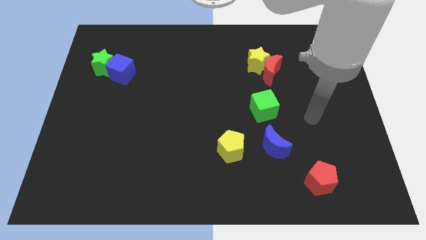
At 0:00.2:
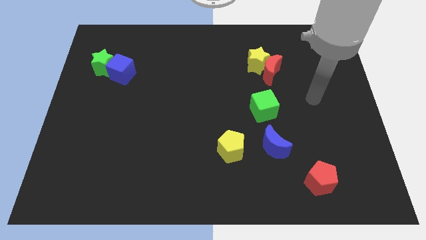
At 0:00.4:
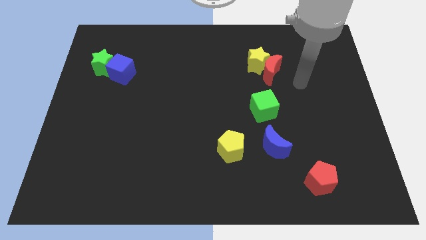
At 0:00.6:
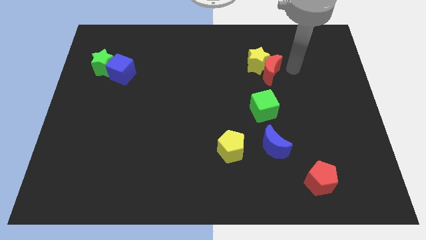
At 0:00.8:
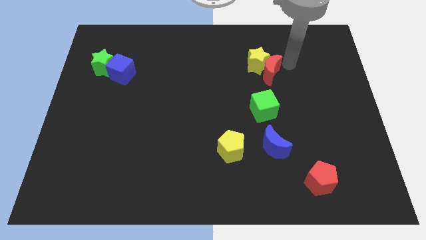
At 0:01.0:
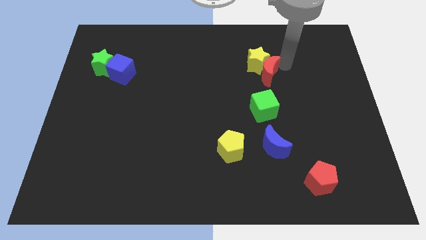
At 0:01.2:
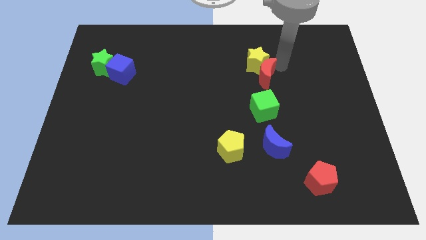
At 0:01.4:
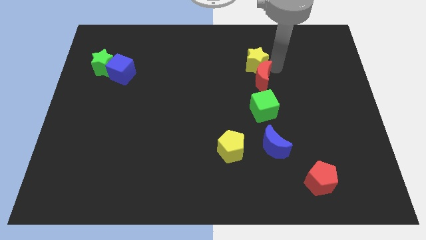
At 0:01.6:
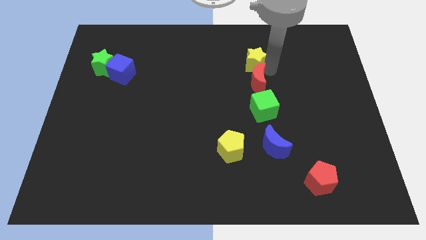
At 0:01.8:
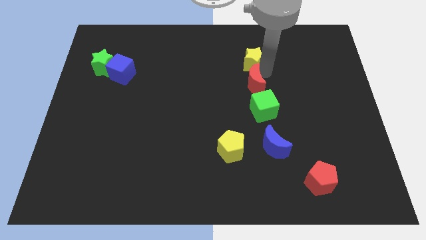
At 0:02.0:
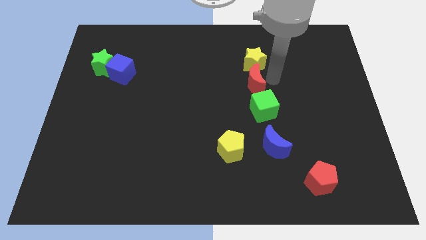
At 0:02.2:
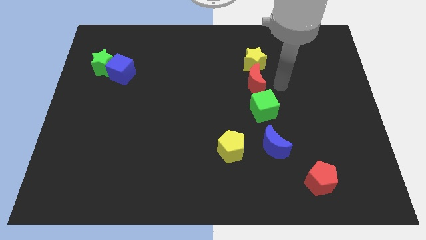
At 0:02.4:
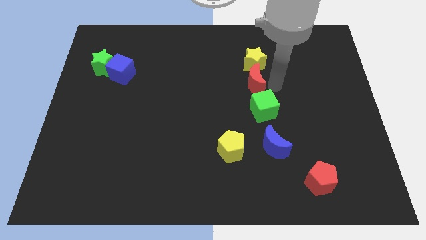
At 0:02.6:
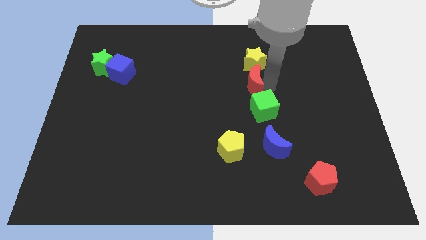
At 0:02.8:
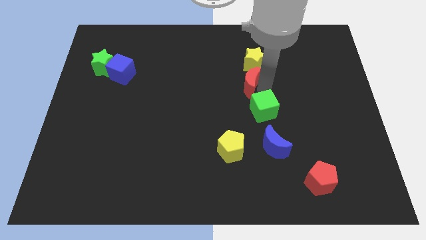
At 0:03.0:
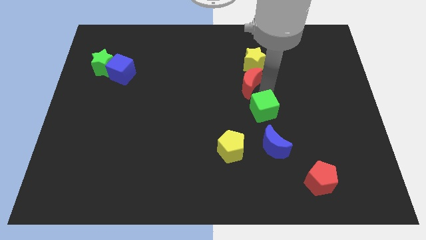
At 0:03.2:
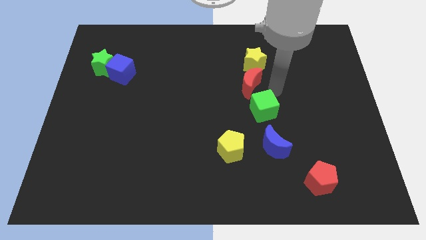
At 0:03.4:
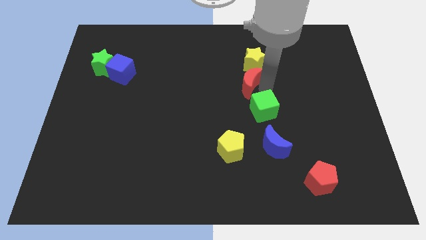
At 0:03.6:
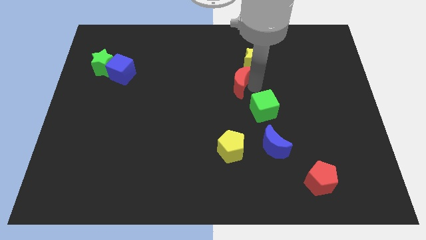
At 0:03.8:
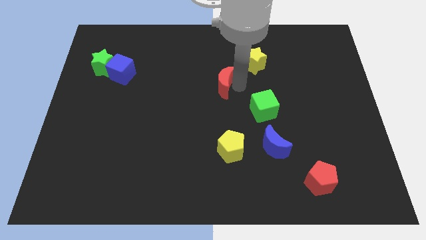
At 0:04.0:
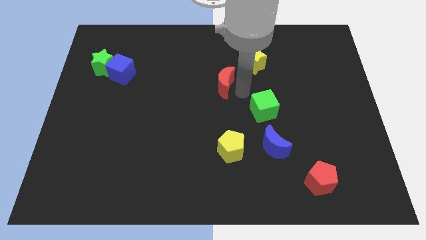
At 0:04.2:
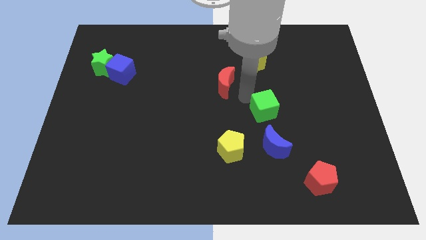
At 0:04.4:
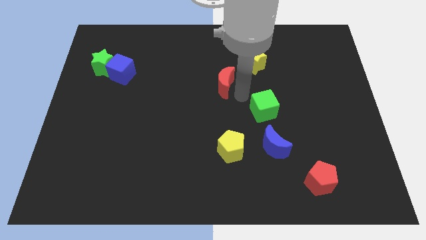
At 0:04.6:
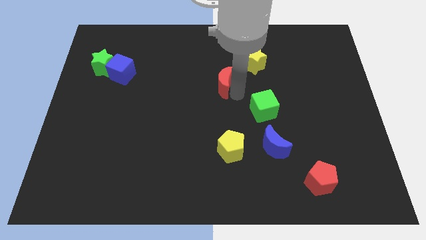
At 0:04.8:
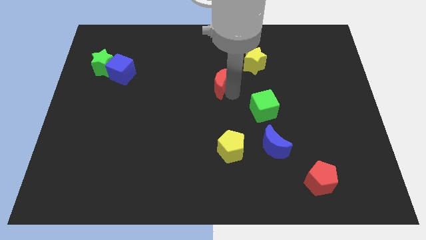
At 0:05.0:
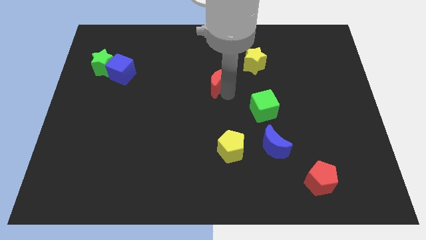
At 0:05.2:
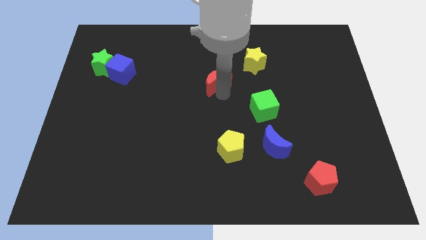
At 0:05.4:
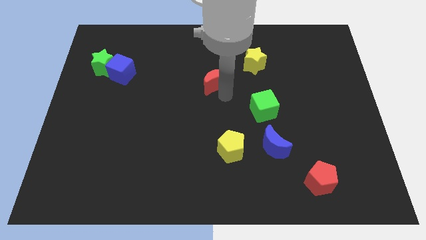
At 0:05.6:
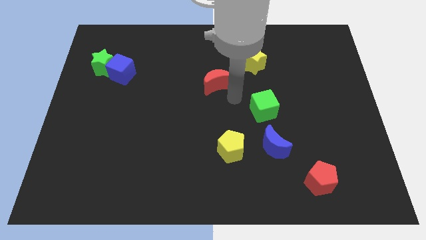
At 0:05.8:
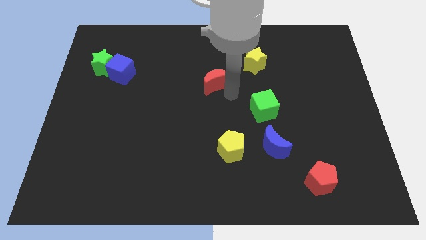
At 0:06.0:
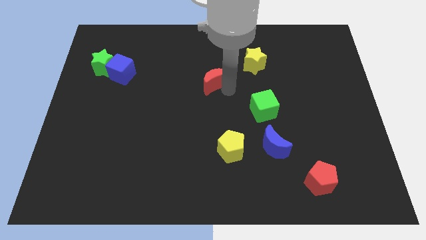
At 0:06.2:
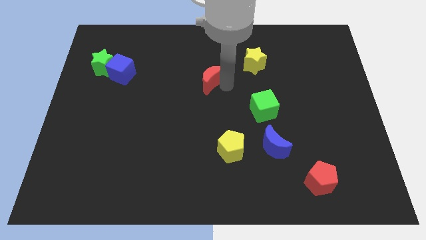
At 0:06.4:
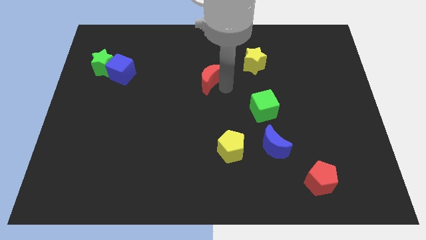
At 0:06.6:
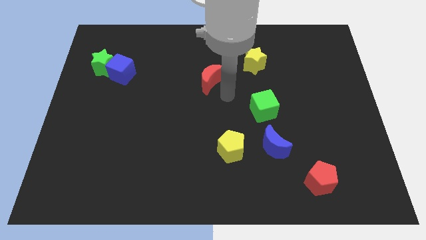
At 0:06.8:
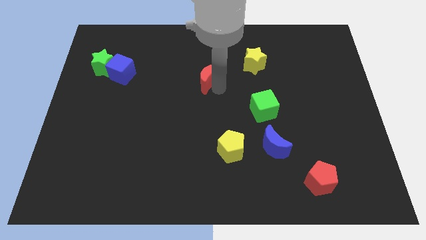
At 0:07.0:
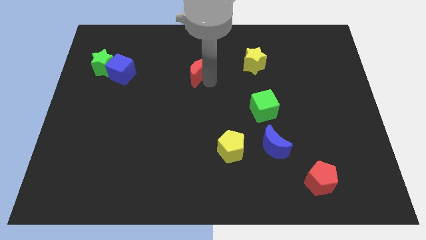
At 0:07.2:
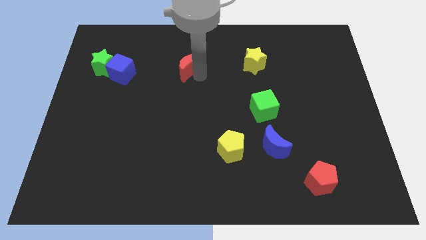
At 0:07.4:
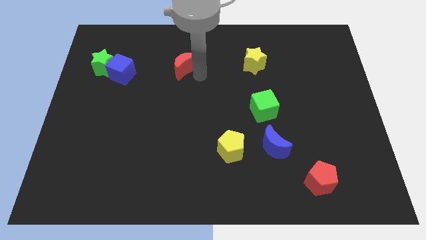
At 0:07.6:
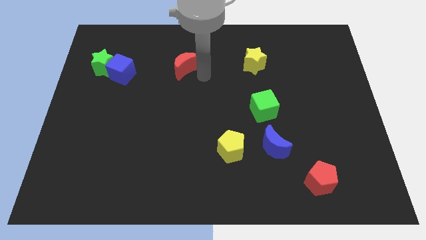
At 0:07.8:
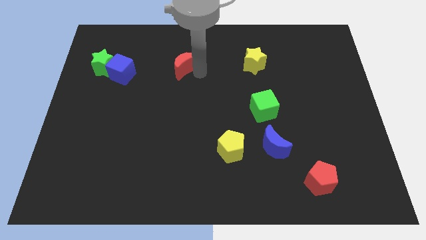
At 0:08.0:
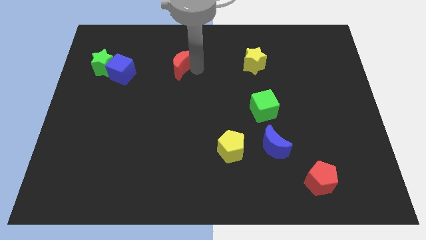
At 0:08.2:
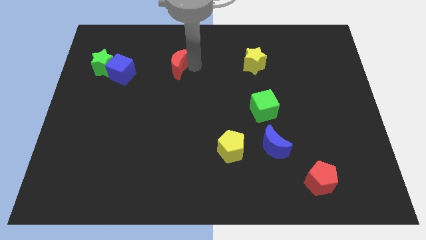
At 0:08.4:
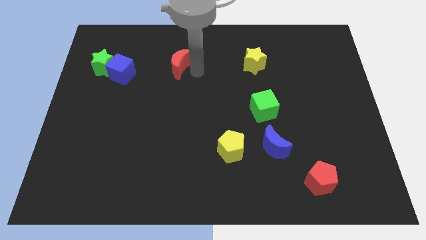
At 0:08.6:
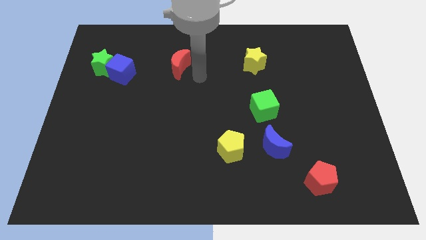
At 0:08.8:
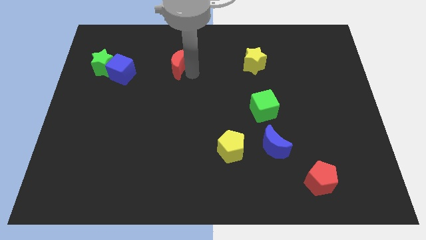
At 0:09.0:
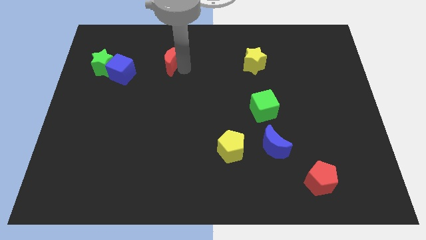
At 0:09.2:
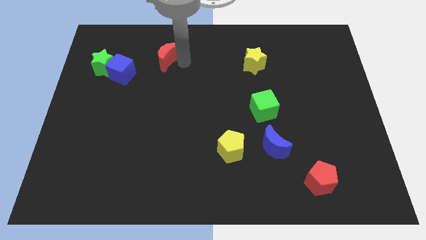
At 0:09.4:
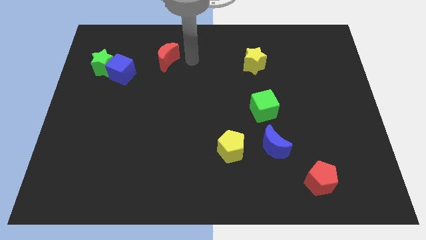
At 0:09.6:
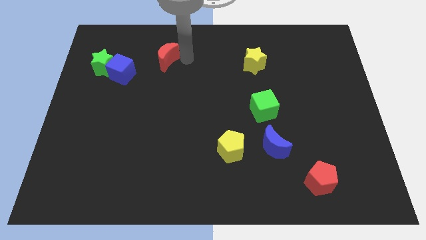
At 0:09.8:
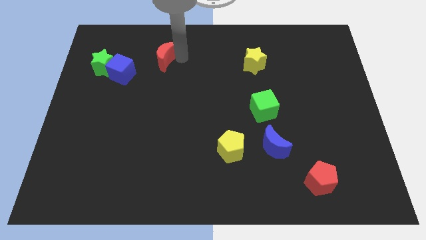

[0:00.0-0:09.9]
push the red moon diagonally up and to the right of the blue cube

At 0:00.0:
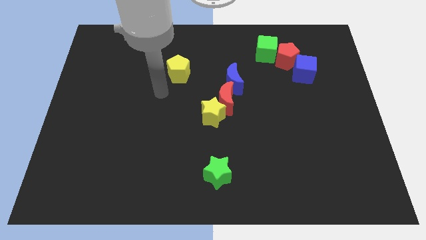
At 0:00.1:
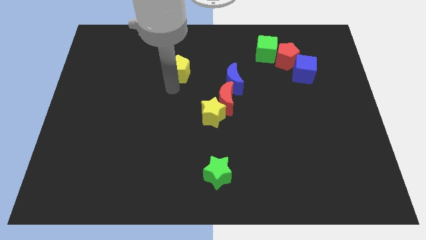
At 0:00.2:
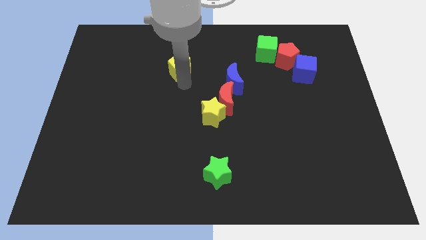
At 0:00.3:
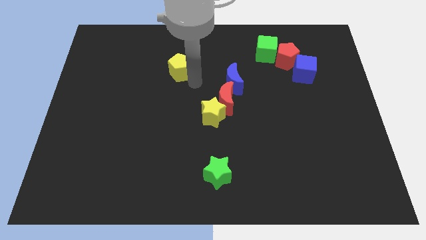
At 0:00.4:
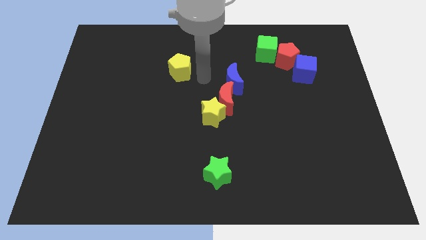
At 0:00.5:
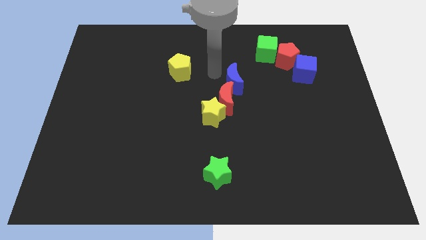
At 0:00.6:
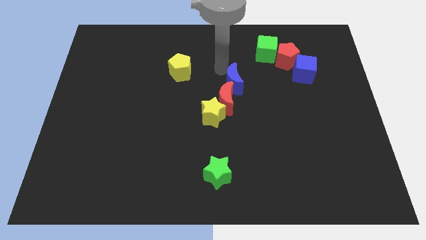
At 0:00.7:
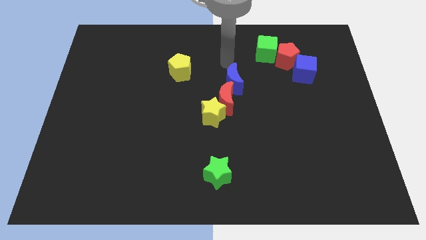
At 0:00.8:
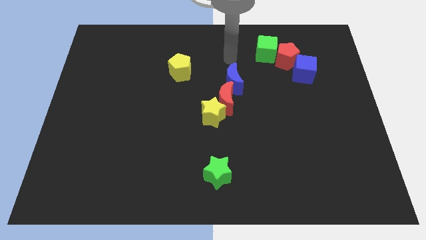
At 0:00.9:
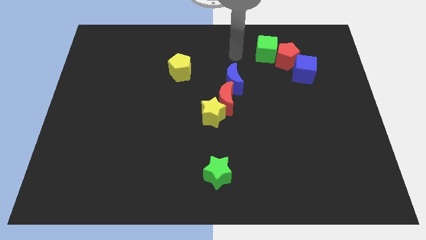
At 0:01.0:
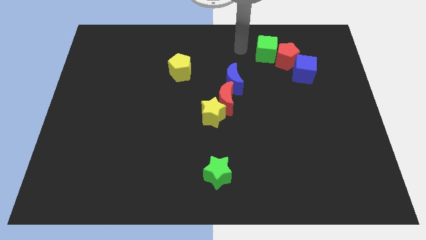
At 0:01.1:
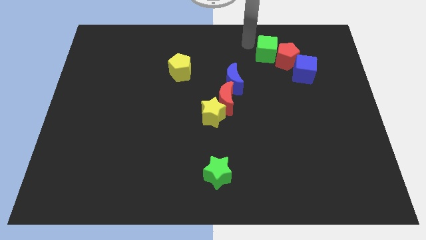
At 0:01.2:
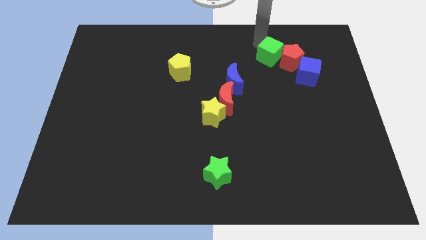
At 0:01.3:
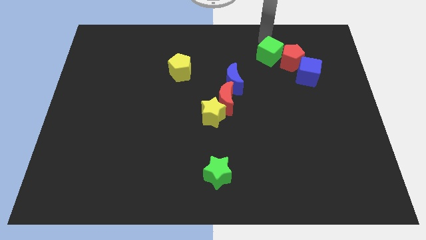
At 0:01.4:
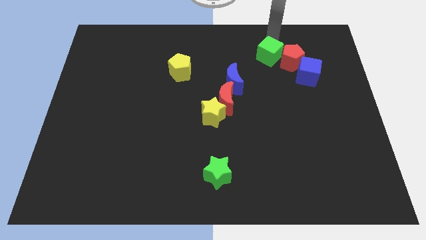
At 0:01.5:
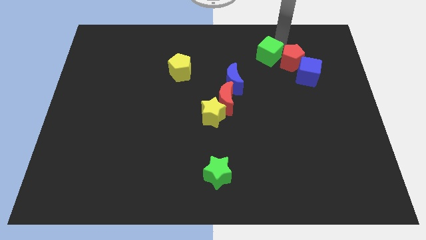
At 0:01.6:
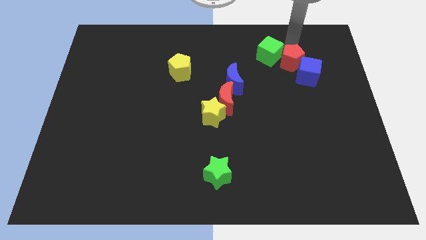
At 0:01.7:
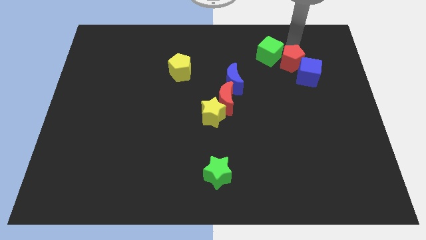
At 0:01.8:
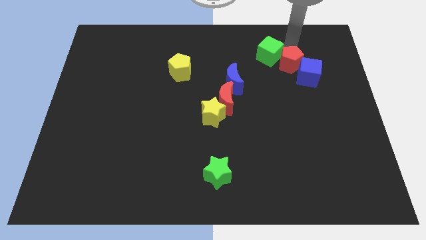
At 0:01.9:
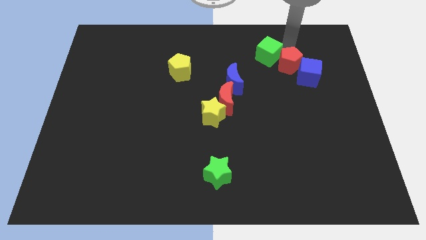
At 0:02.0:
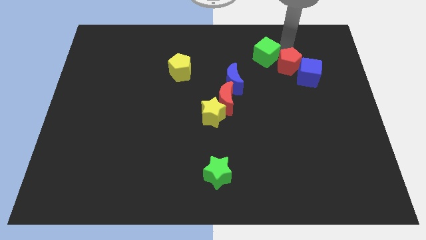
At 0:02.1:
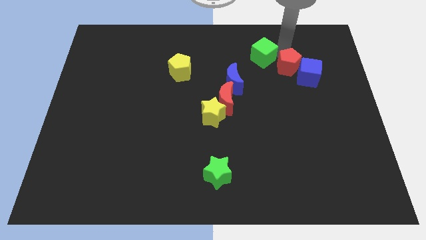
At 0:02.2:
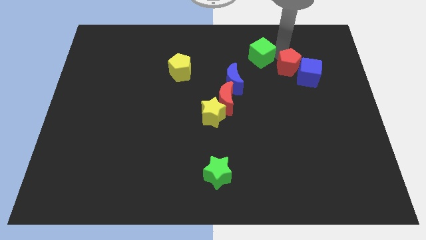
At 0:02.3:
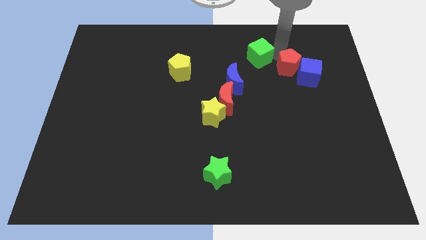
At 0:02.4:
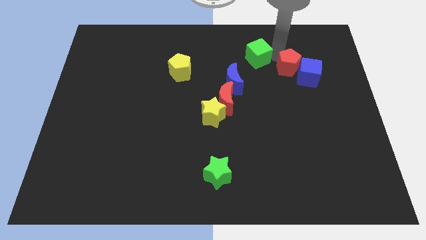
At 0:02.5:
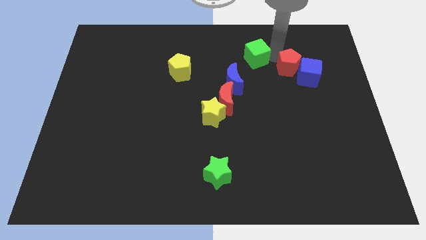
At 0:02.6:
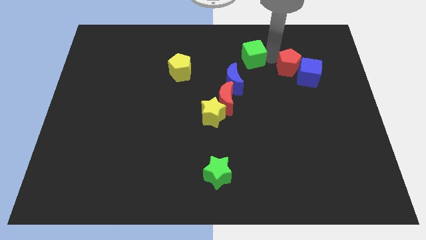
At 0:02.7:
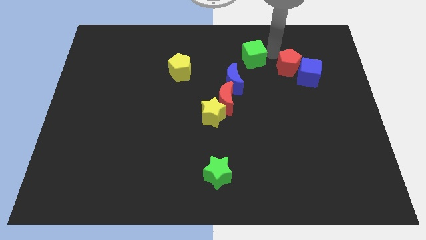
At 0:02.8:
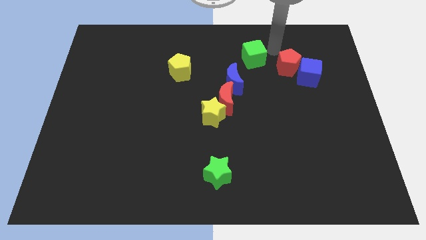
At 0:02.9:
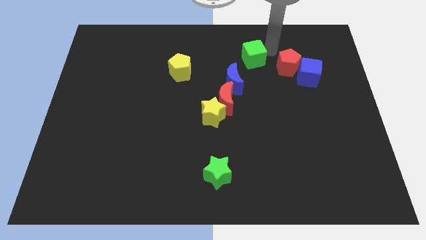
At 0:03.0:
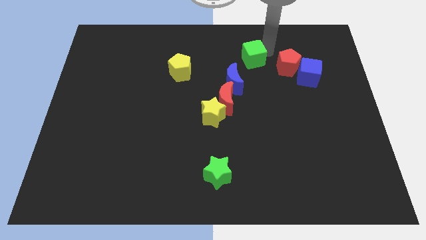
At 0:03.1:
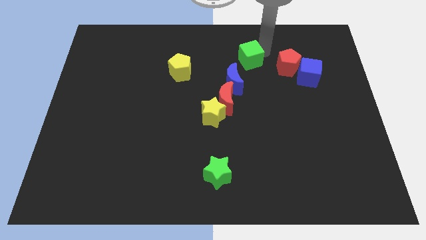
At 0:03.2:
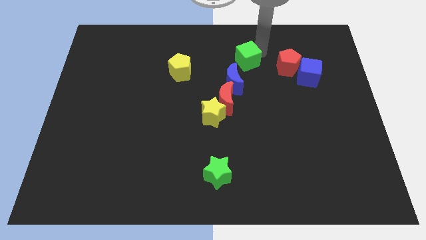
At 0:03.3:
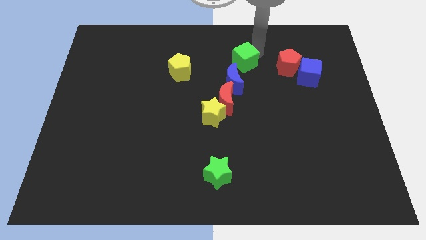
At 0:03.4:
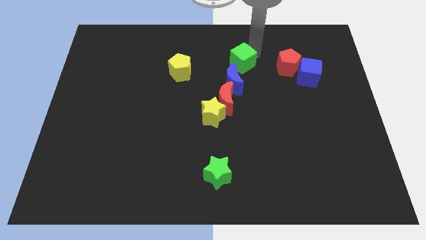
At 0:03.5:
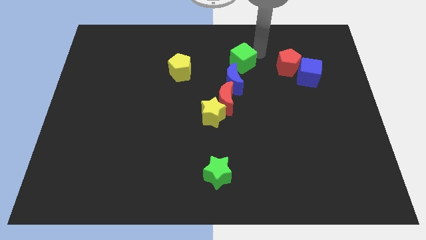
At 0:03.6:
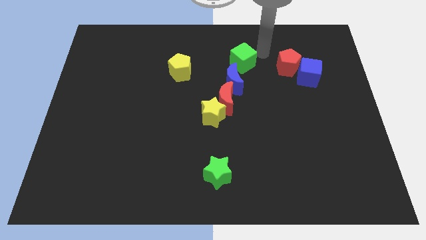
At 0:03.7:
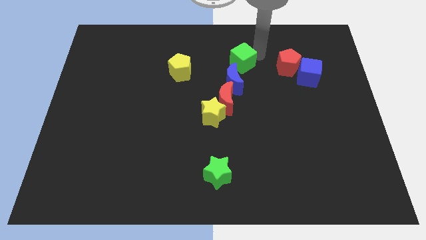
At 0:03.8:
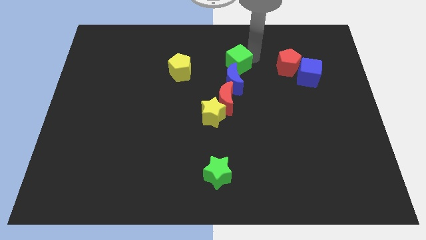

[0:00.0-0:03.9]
move the green cube just right of the yellow pentagon
